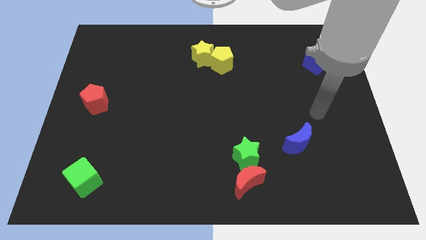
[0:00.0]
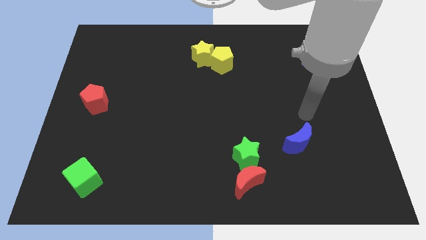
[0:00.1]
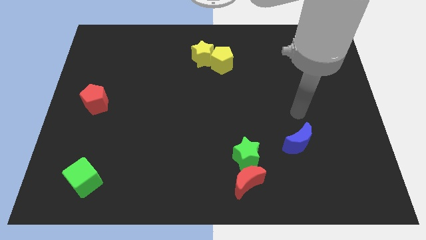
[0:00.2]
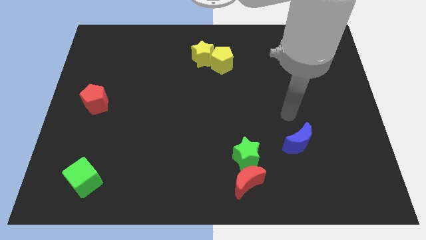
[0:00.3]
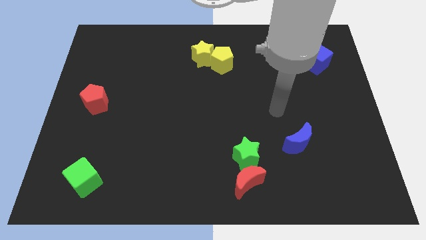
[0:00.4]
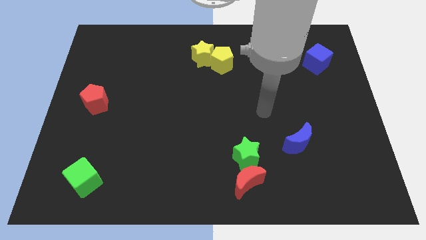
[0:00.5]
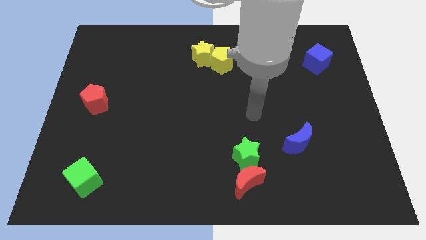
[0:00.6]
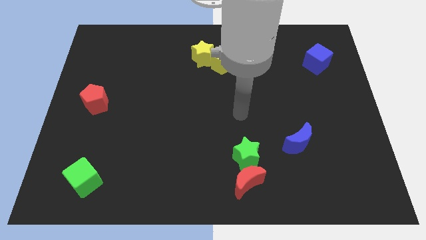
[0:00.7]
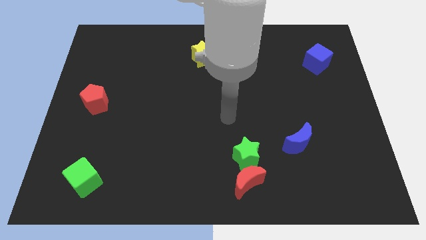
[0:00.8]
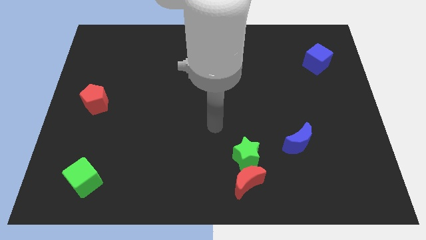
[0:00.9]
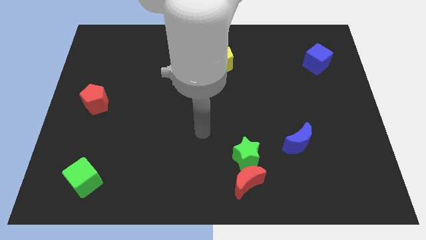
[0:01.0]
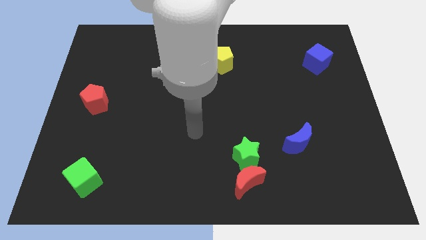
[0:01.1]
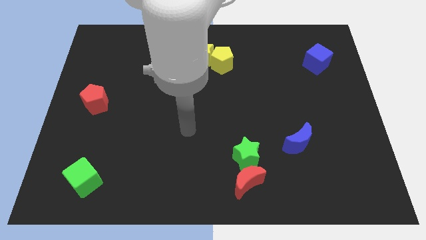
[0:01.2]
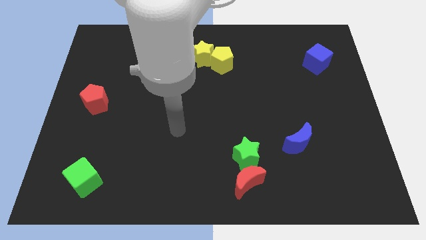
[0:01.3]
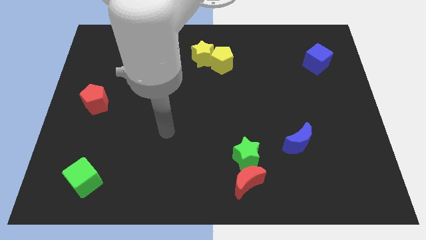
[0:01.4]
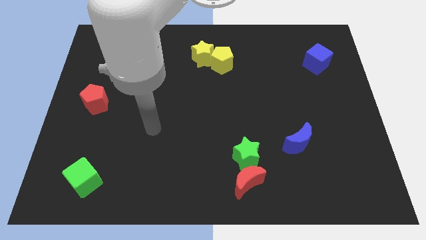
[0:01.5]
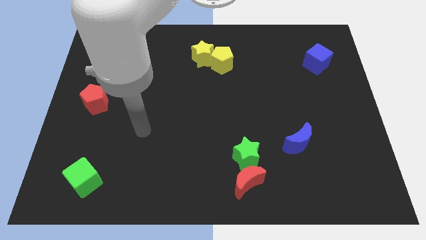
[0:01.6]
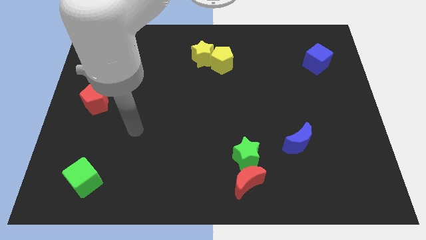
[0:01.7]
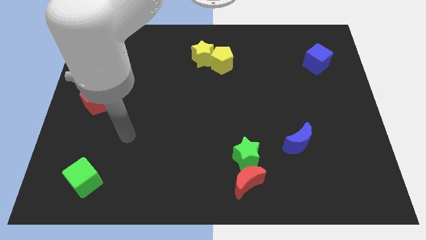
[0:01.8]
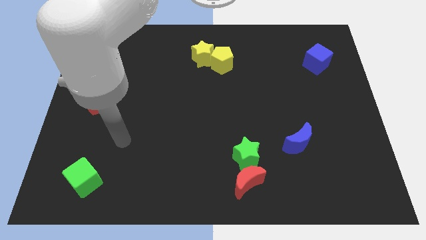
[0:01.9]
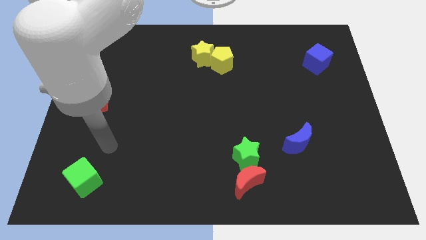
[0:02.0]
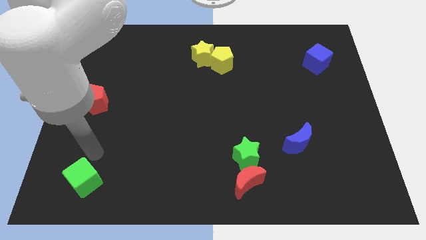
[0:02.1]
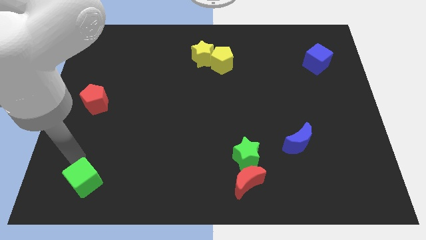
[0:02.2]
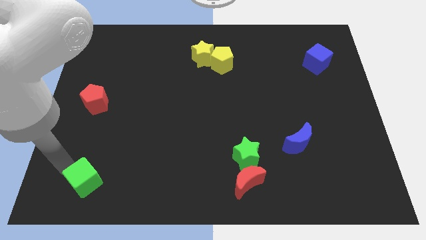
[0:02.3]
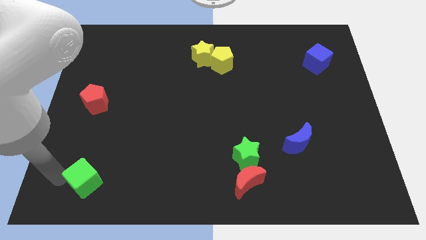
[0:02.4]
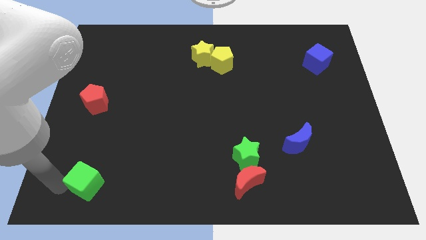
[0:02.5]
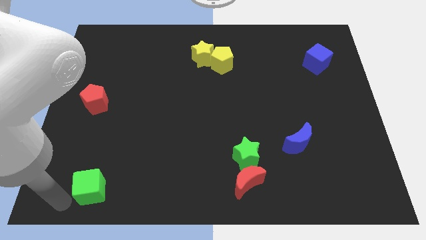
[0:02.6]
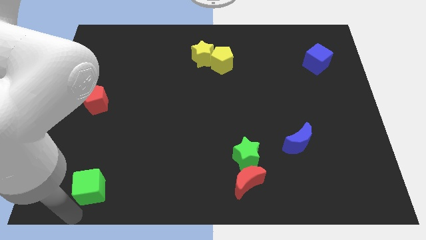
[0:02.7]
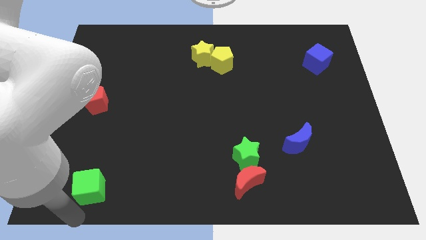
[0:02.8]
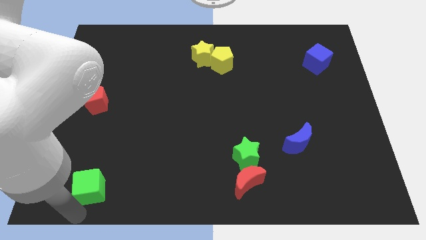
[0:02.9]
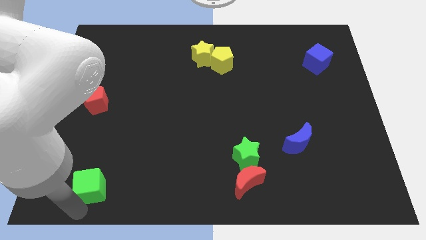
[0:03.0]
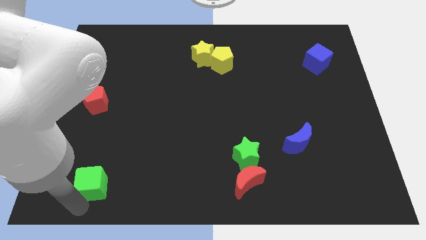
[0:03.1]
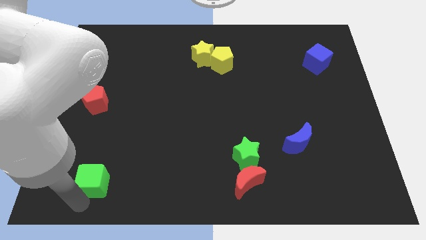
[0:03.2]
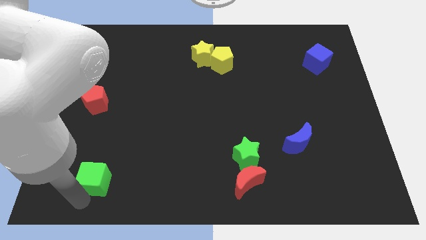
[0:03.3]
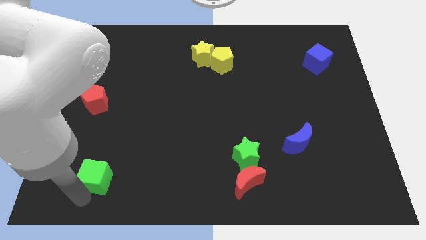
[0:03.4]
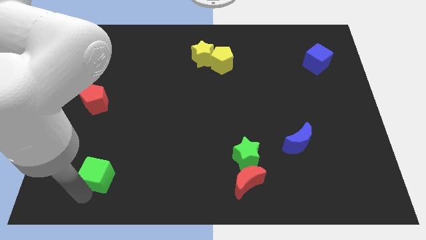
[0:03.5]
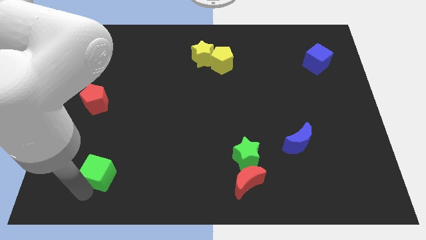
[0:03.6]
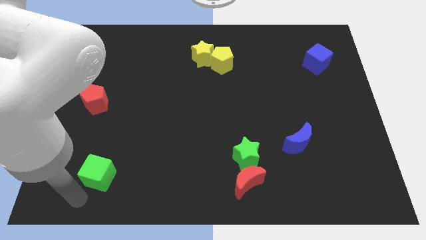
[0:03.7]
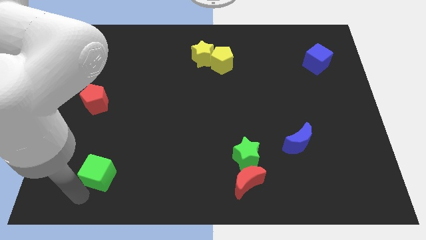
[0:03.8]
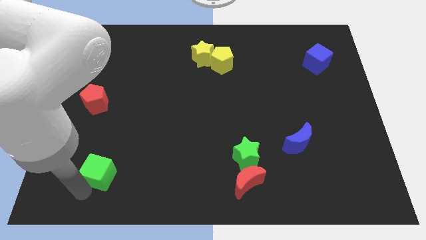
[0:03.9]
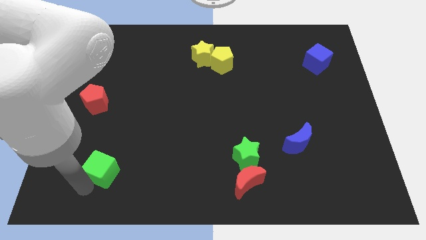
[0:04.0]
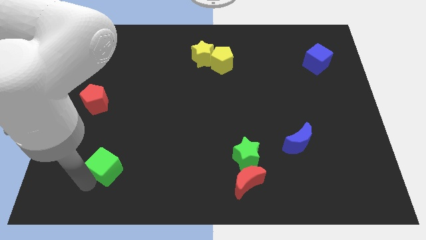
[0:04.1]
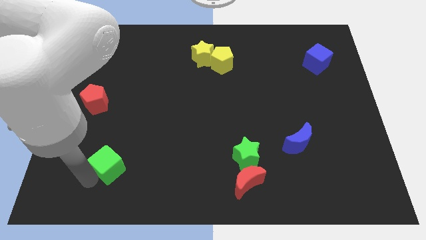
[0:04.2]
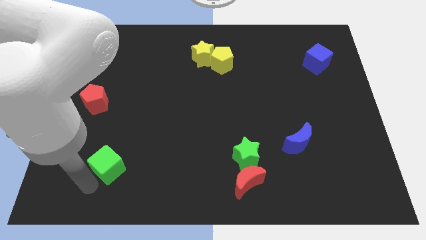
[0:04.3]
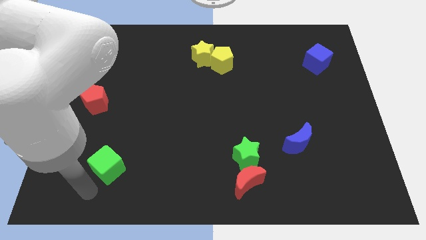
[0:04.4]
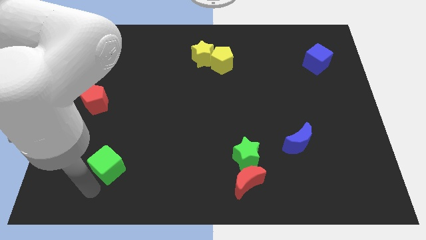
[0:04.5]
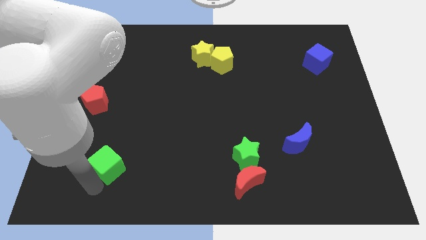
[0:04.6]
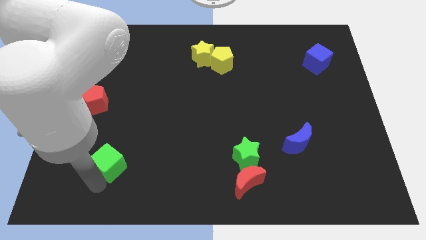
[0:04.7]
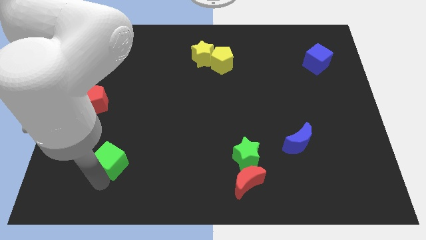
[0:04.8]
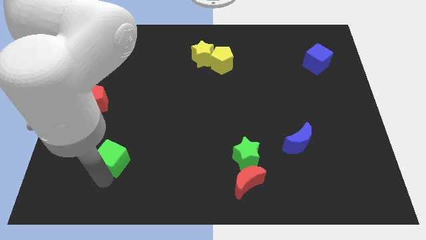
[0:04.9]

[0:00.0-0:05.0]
move the green cube upwards and then right somewhat

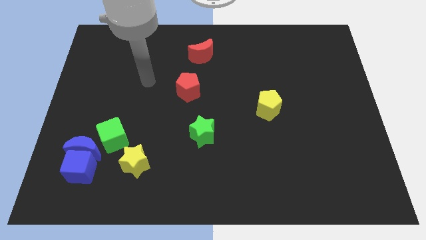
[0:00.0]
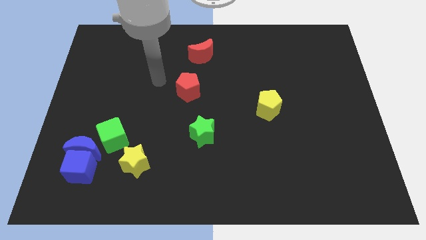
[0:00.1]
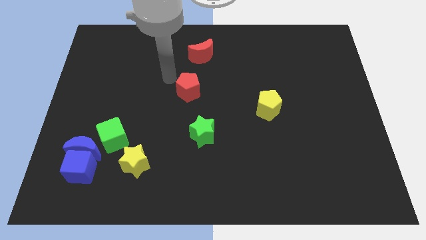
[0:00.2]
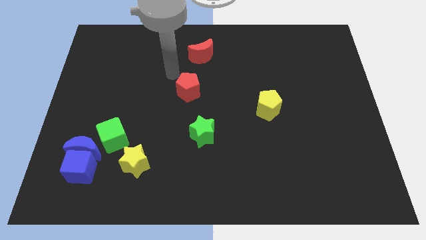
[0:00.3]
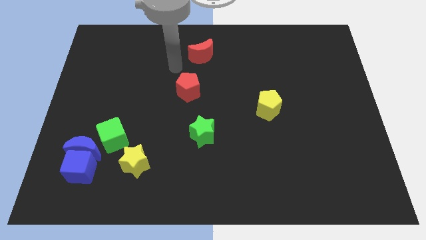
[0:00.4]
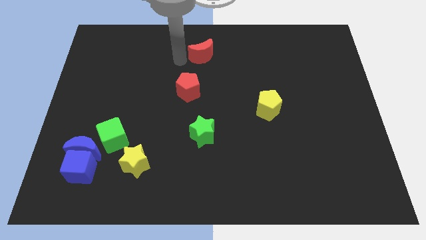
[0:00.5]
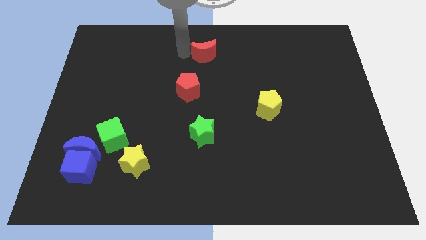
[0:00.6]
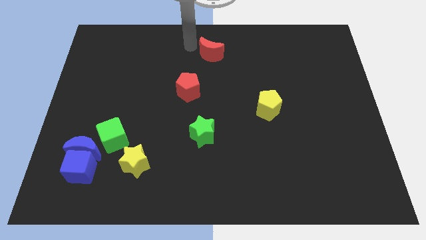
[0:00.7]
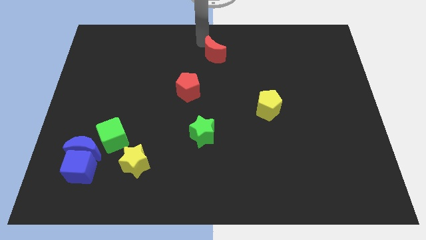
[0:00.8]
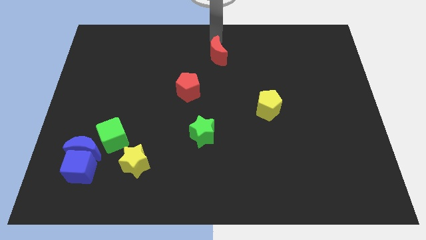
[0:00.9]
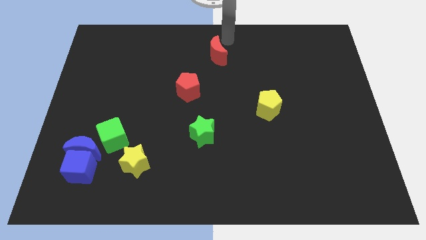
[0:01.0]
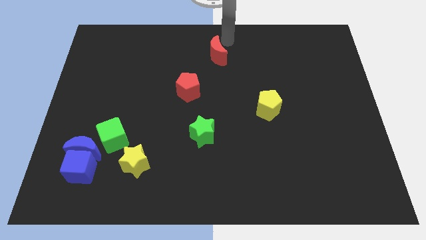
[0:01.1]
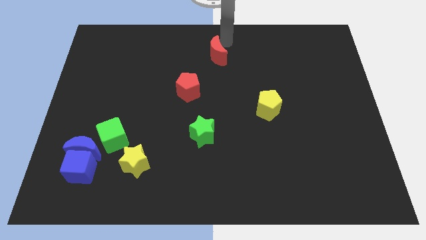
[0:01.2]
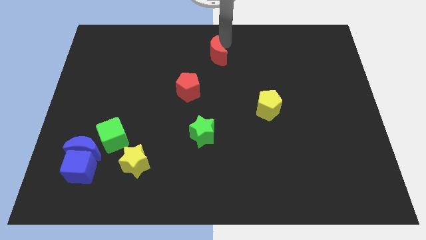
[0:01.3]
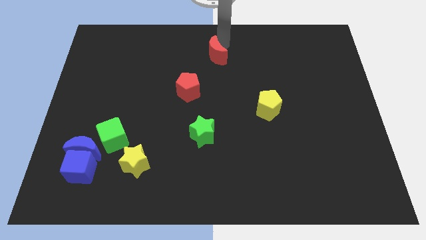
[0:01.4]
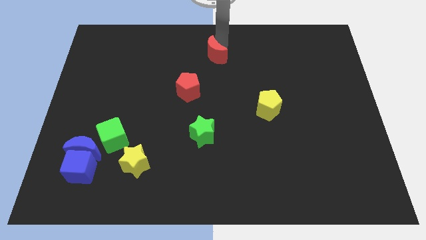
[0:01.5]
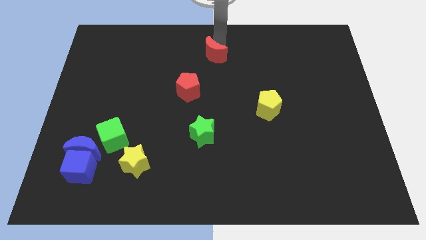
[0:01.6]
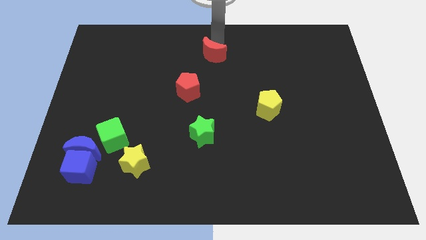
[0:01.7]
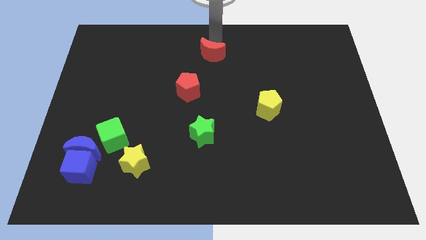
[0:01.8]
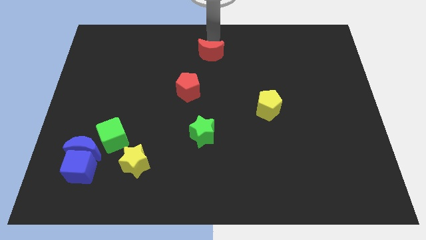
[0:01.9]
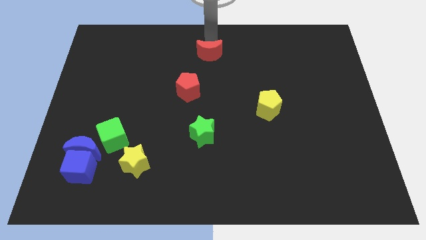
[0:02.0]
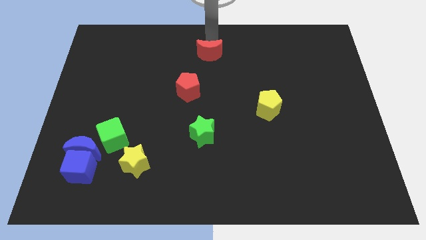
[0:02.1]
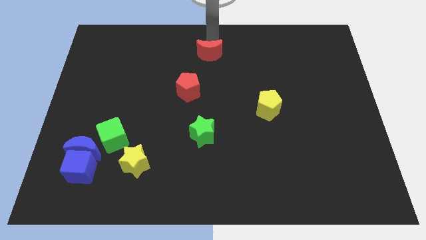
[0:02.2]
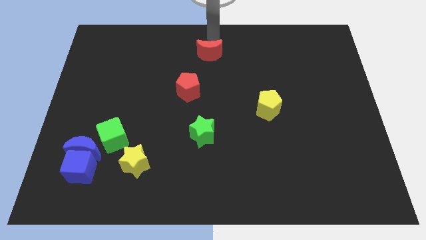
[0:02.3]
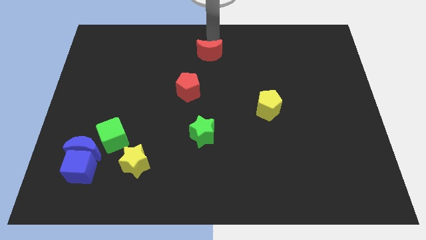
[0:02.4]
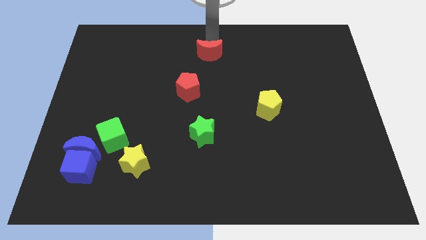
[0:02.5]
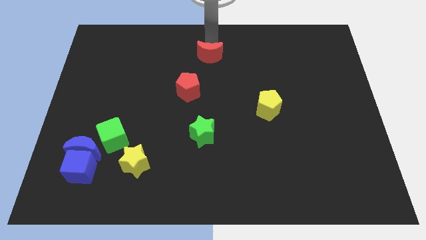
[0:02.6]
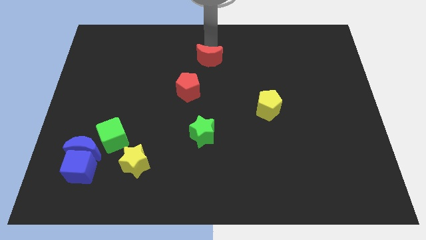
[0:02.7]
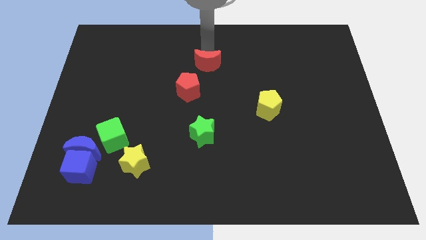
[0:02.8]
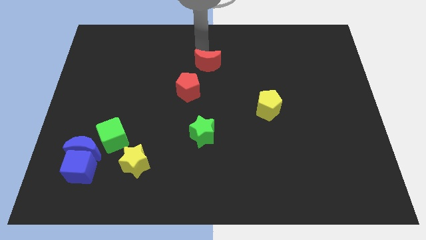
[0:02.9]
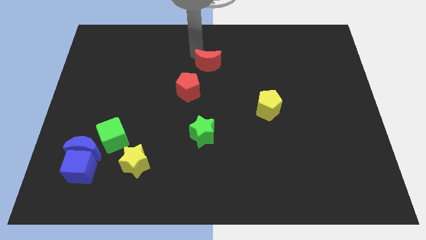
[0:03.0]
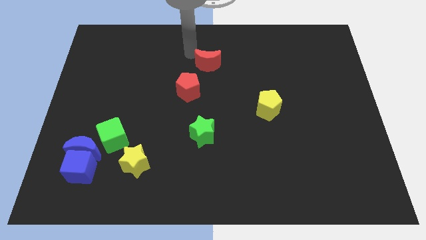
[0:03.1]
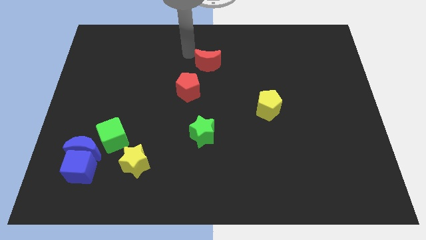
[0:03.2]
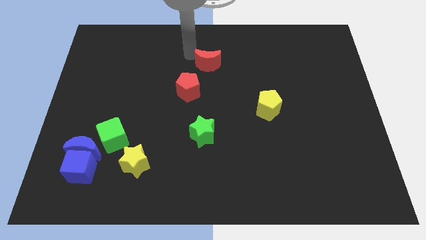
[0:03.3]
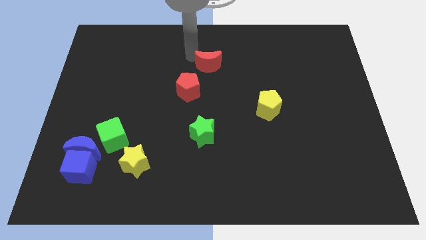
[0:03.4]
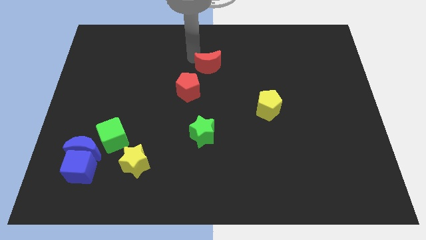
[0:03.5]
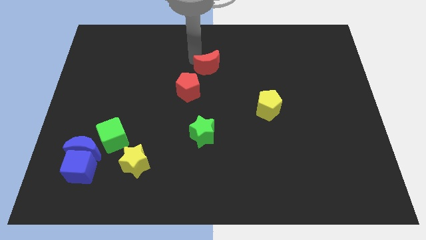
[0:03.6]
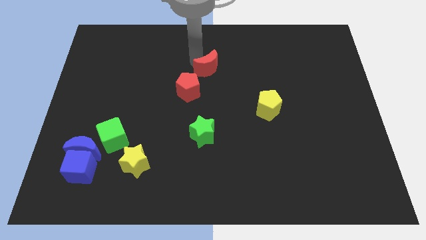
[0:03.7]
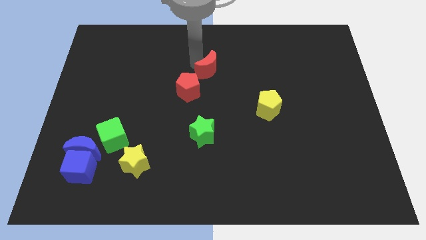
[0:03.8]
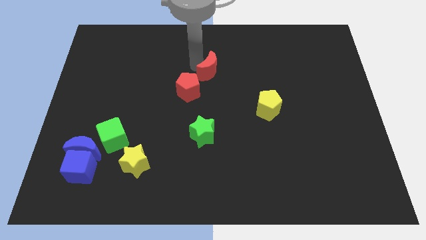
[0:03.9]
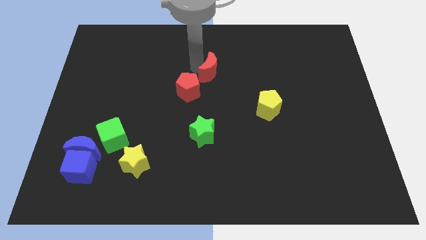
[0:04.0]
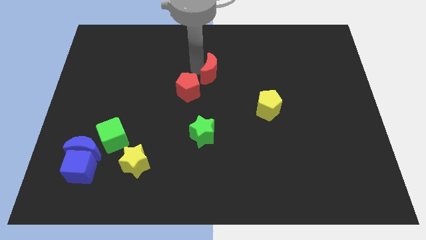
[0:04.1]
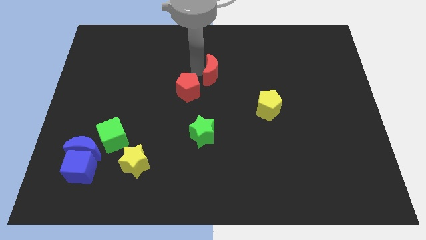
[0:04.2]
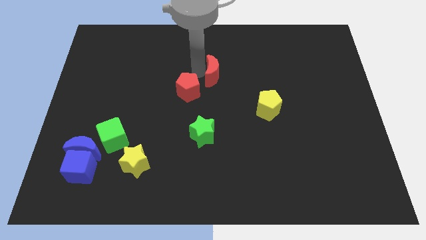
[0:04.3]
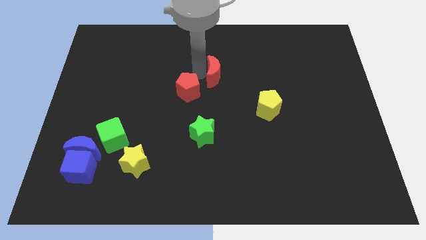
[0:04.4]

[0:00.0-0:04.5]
slide the red moon downwards and then right a little
